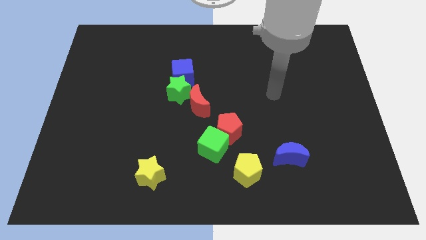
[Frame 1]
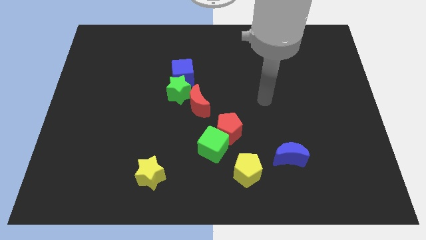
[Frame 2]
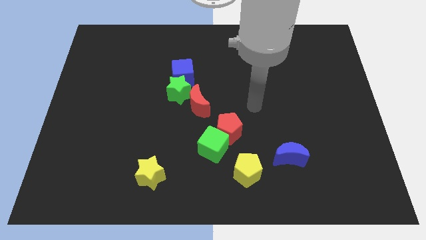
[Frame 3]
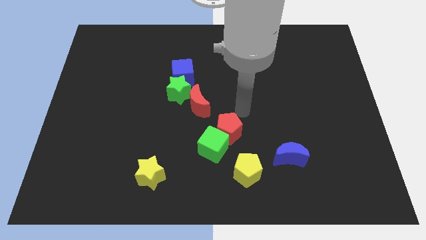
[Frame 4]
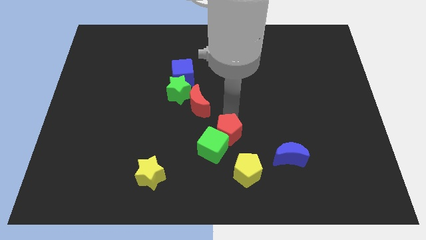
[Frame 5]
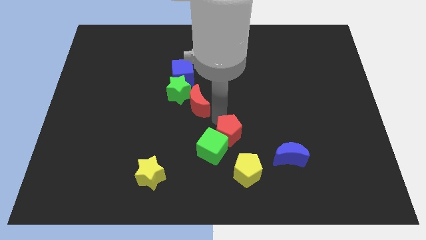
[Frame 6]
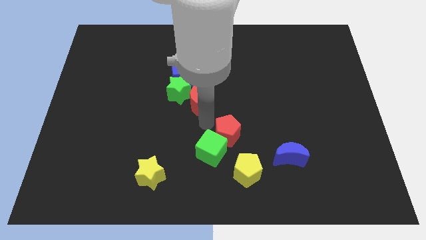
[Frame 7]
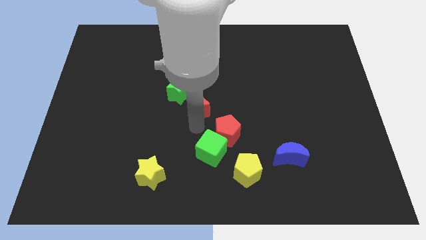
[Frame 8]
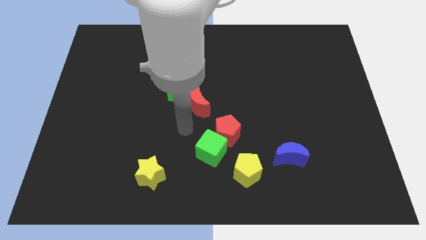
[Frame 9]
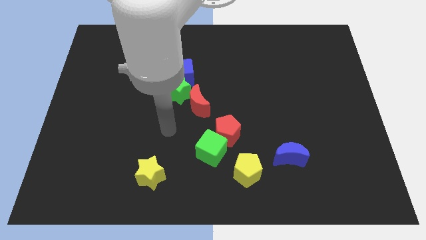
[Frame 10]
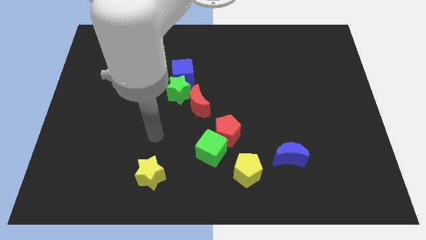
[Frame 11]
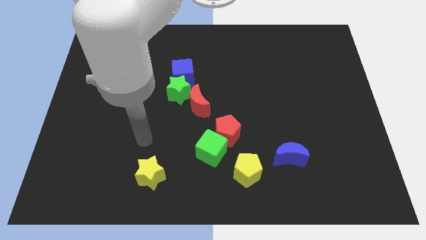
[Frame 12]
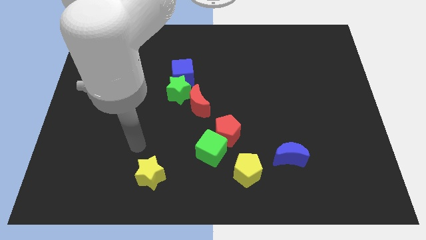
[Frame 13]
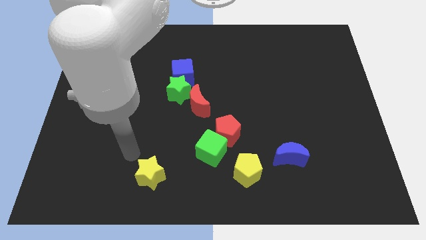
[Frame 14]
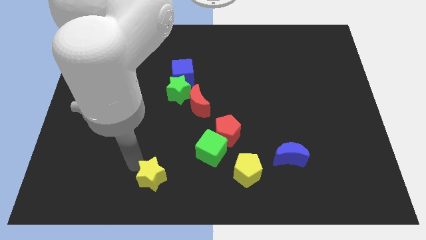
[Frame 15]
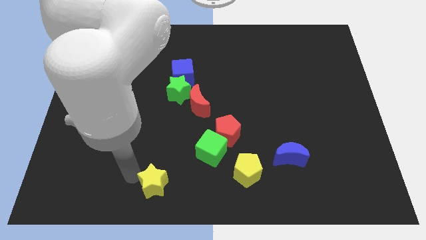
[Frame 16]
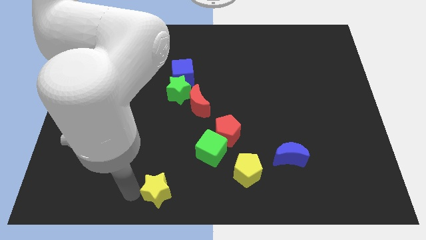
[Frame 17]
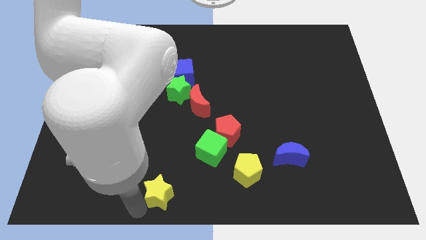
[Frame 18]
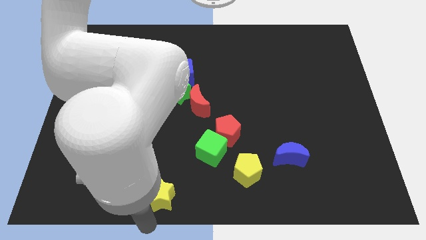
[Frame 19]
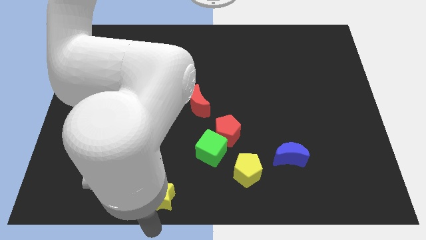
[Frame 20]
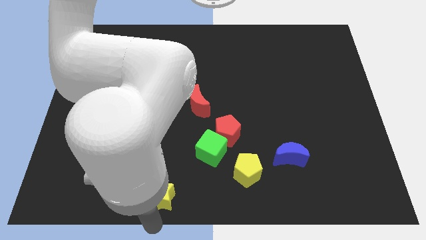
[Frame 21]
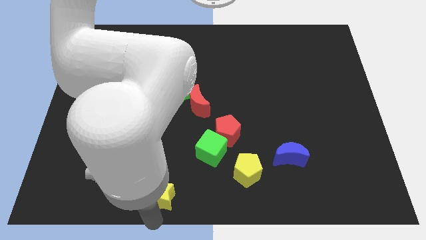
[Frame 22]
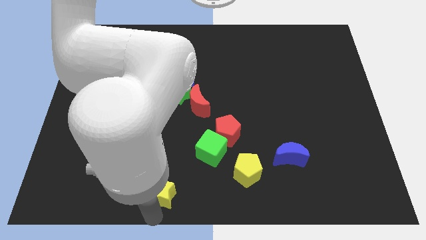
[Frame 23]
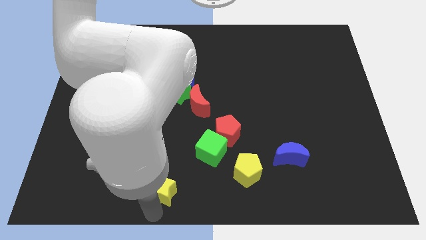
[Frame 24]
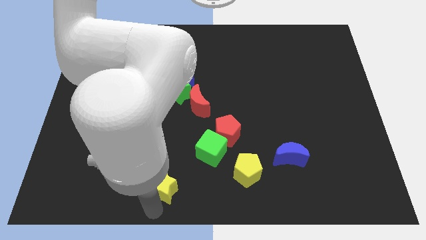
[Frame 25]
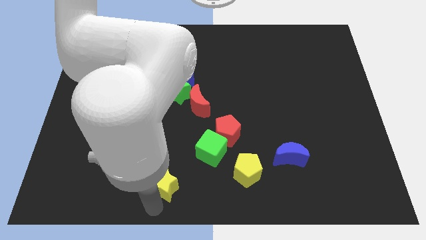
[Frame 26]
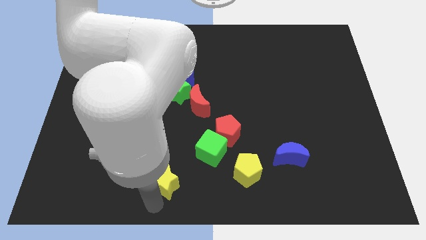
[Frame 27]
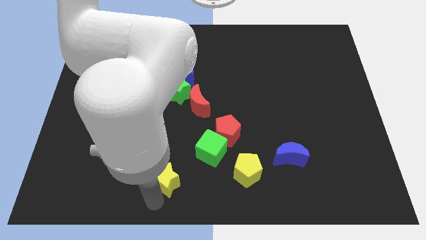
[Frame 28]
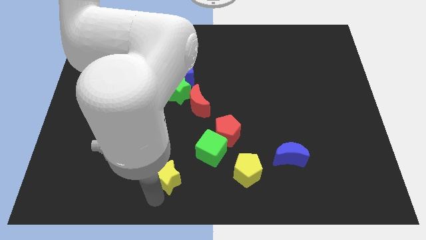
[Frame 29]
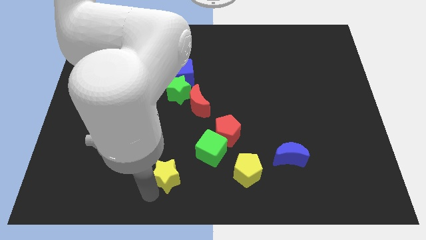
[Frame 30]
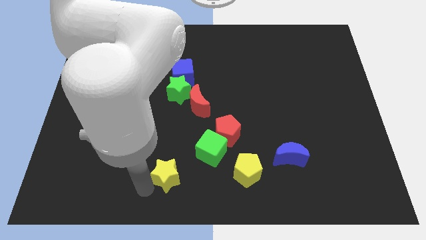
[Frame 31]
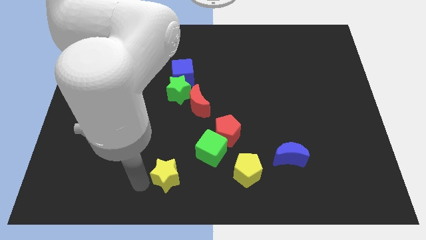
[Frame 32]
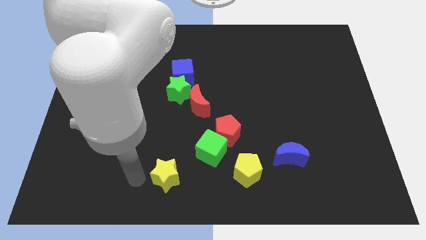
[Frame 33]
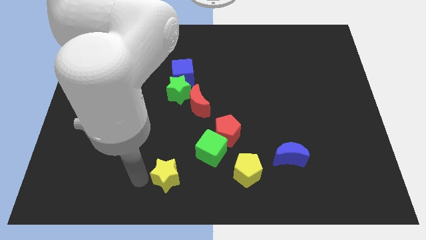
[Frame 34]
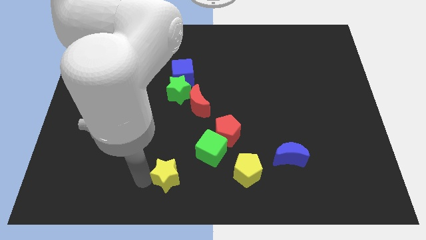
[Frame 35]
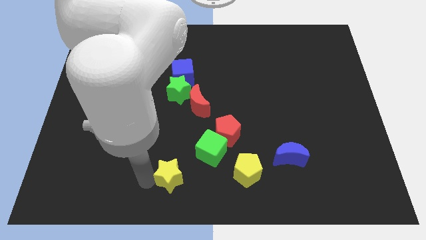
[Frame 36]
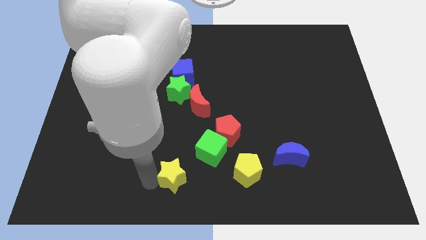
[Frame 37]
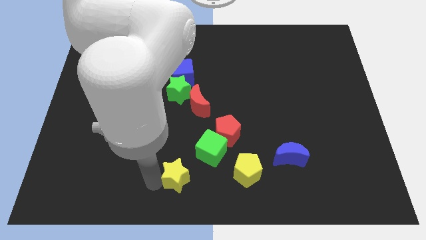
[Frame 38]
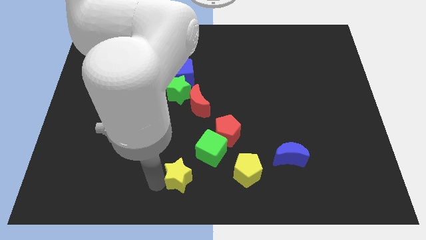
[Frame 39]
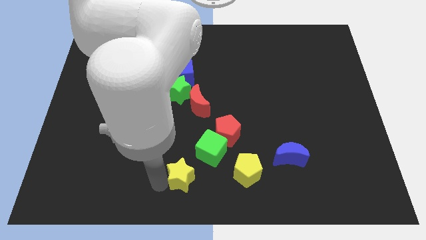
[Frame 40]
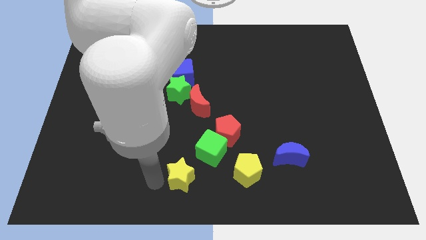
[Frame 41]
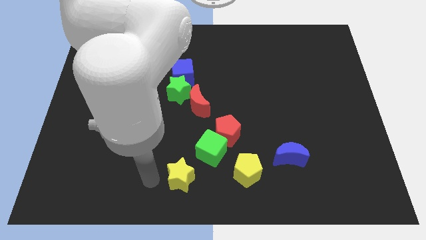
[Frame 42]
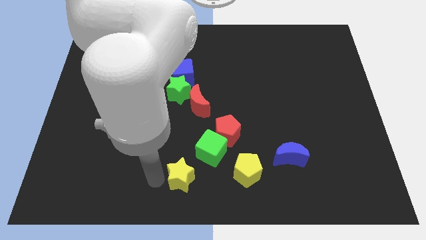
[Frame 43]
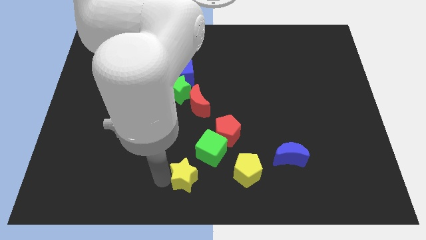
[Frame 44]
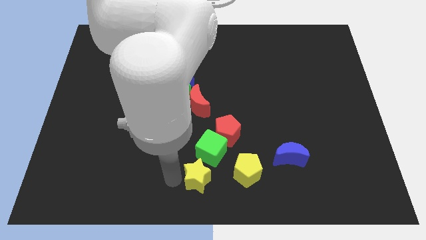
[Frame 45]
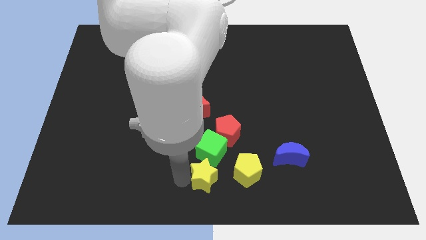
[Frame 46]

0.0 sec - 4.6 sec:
slide the yellow star below the red pentagon

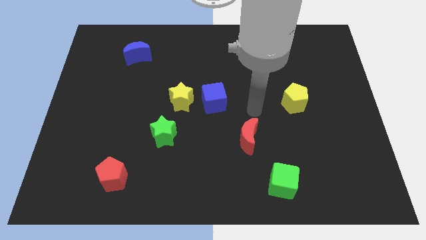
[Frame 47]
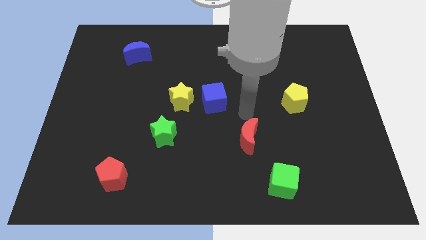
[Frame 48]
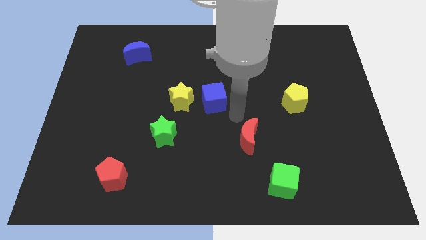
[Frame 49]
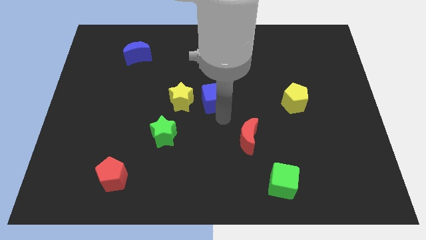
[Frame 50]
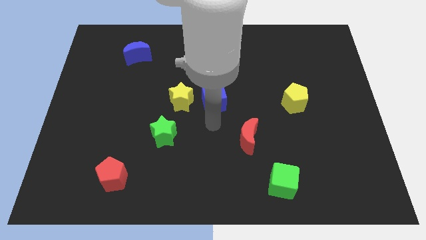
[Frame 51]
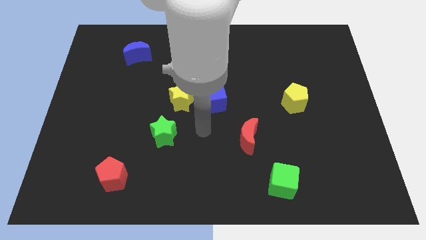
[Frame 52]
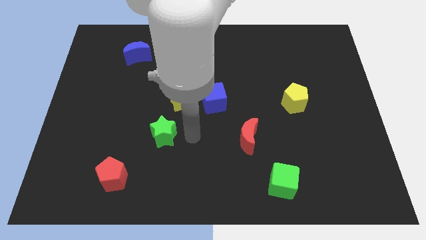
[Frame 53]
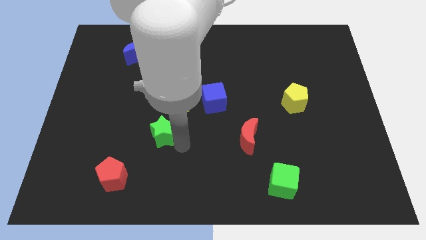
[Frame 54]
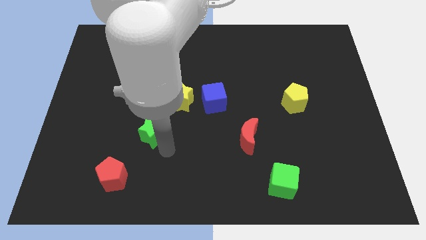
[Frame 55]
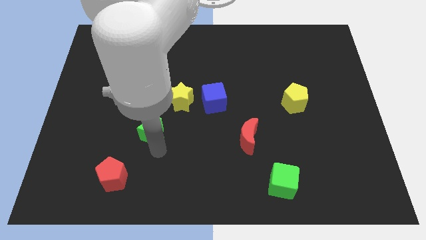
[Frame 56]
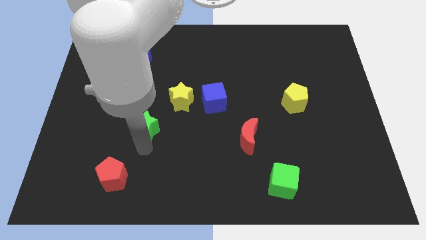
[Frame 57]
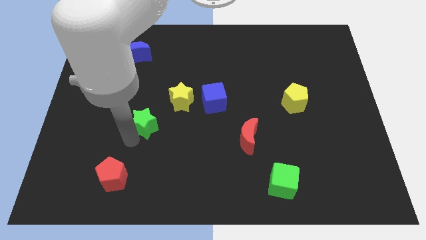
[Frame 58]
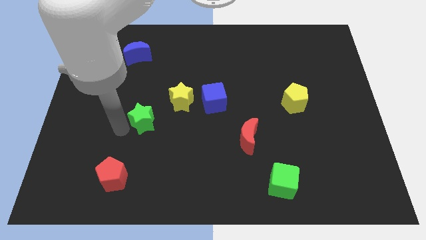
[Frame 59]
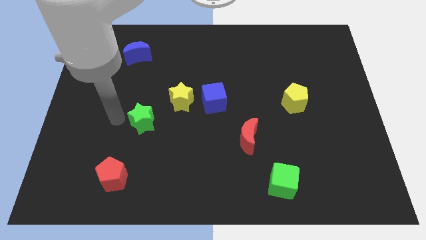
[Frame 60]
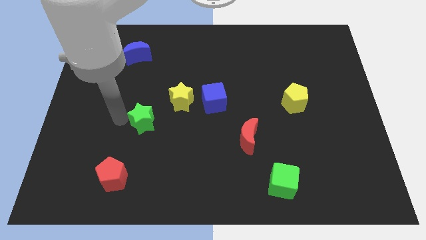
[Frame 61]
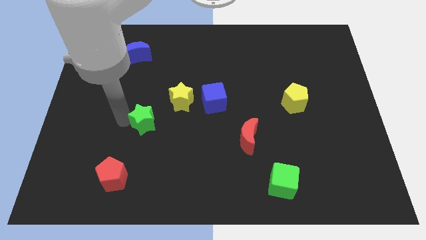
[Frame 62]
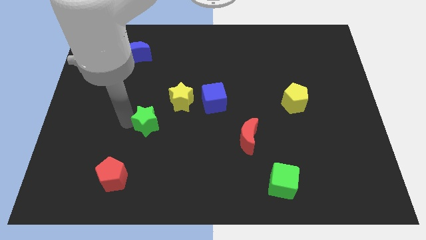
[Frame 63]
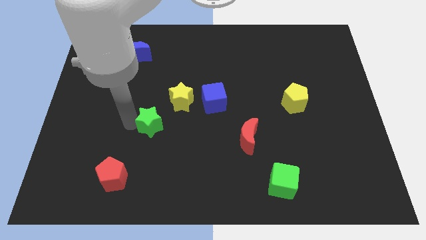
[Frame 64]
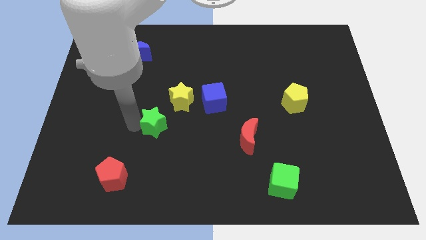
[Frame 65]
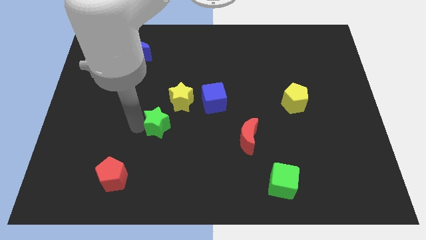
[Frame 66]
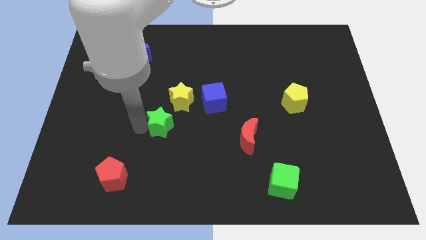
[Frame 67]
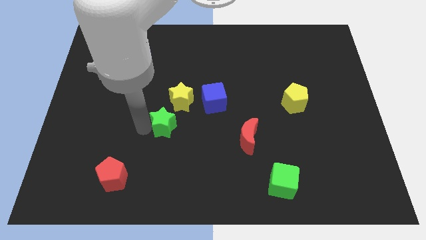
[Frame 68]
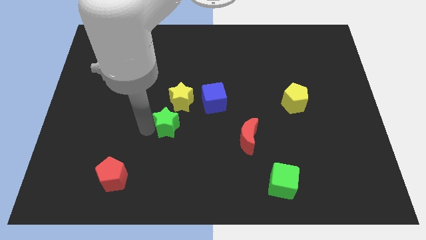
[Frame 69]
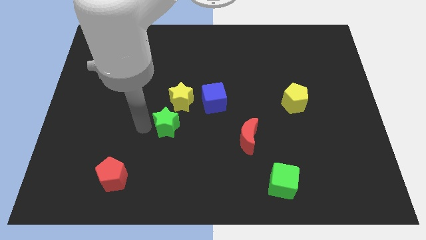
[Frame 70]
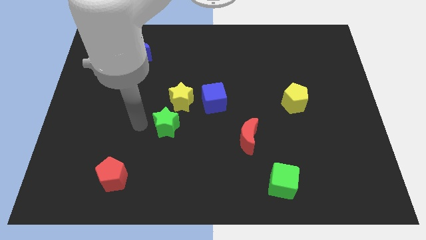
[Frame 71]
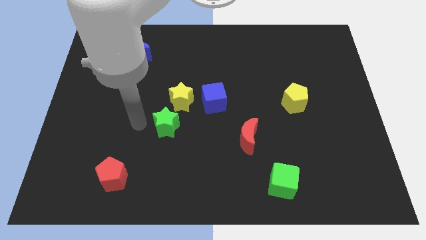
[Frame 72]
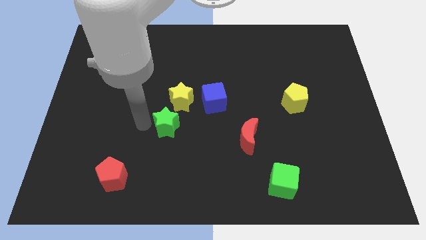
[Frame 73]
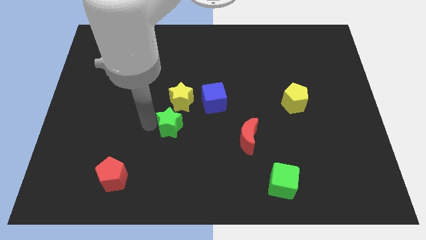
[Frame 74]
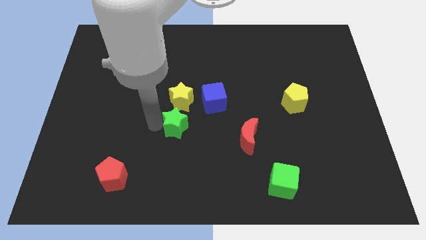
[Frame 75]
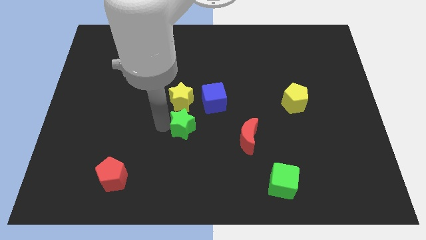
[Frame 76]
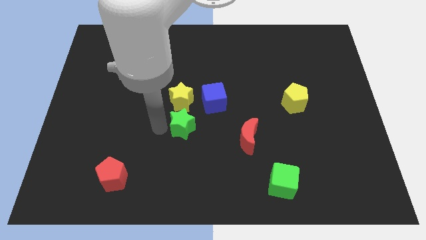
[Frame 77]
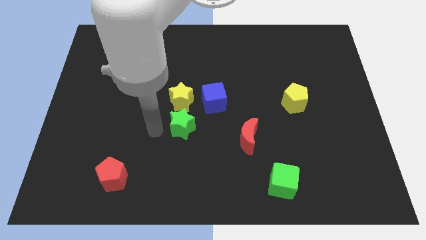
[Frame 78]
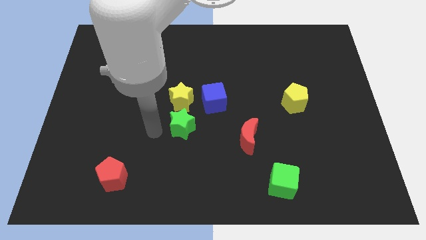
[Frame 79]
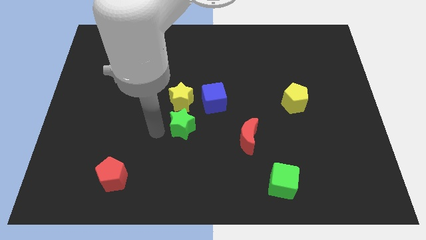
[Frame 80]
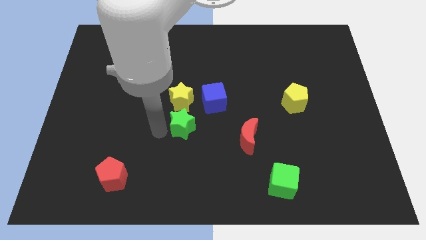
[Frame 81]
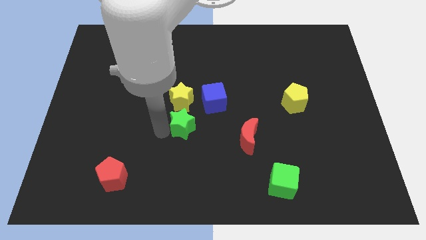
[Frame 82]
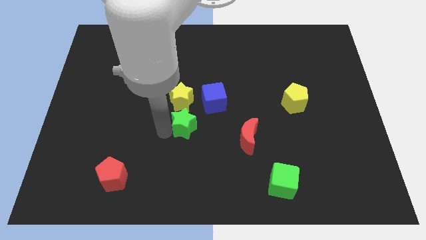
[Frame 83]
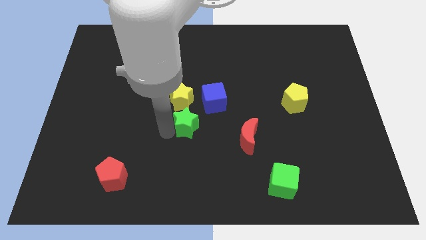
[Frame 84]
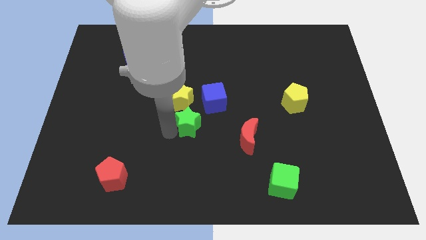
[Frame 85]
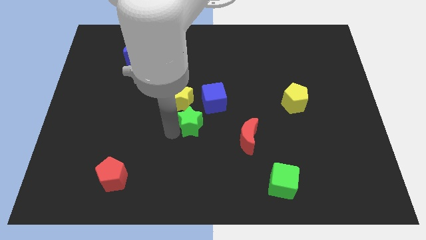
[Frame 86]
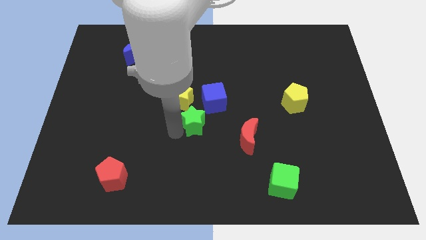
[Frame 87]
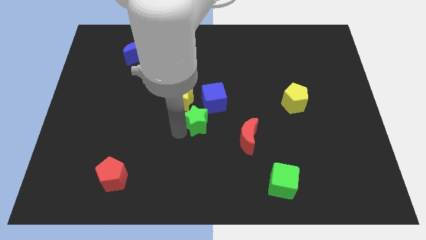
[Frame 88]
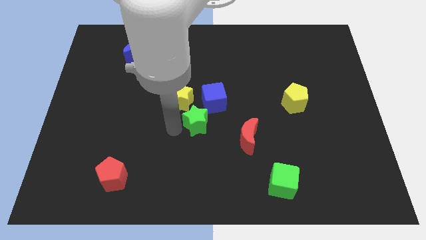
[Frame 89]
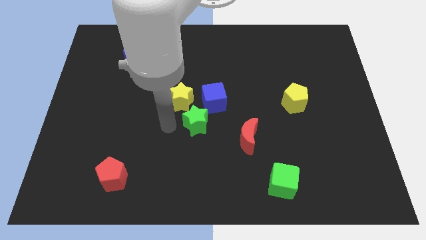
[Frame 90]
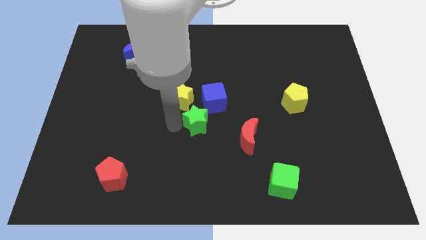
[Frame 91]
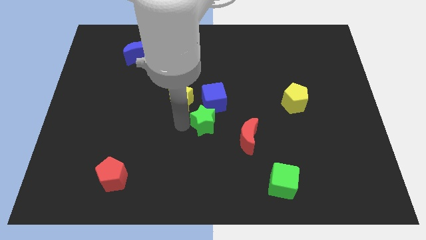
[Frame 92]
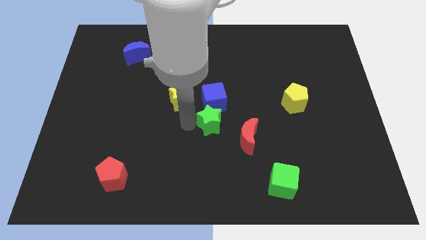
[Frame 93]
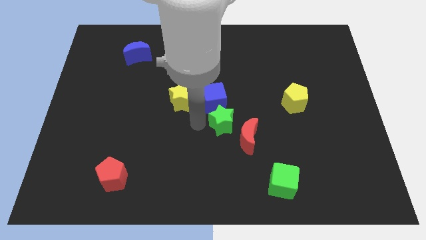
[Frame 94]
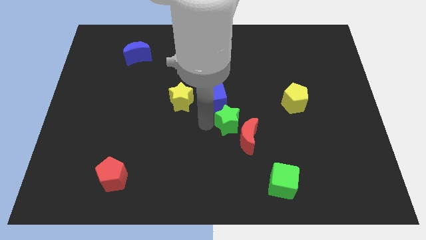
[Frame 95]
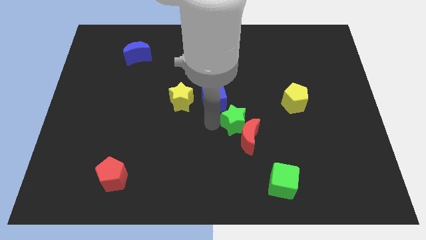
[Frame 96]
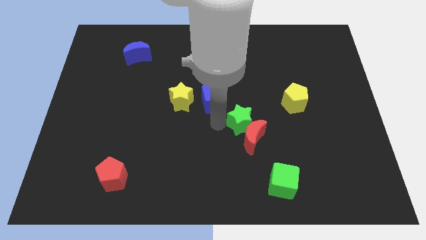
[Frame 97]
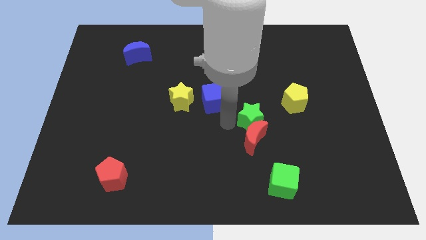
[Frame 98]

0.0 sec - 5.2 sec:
put the green star to the bottom left of the yellow pentagon
